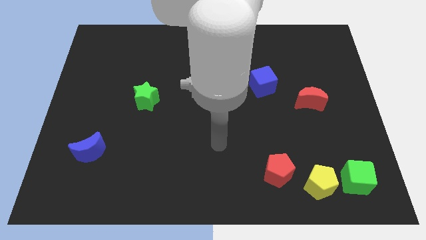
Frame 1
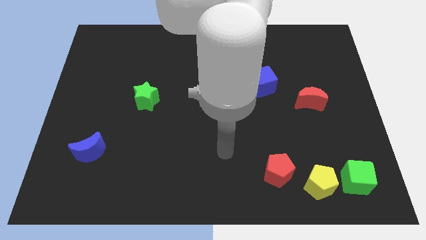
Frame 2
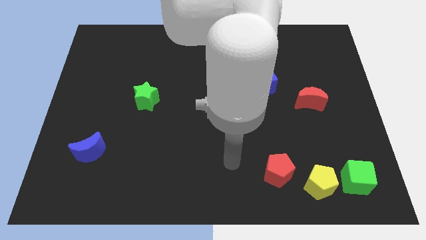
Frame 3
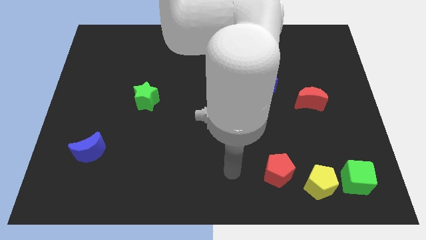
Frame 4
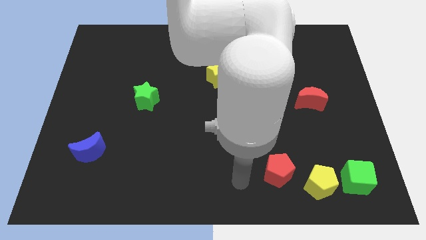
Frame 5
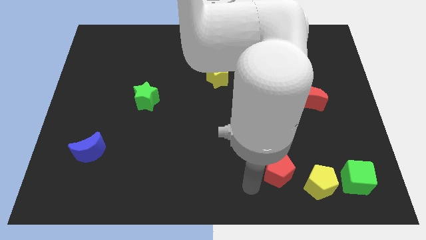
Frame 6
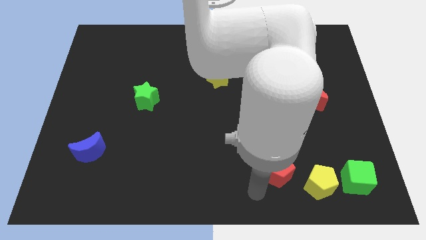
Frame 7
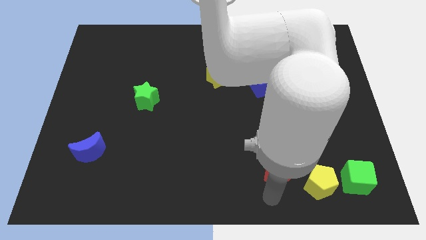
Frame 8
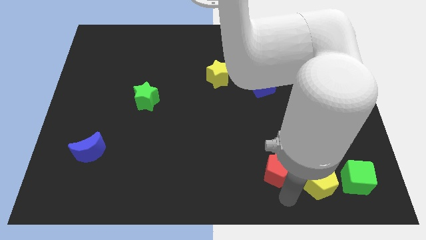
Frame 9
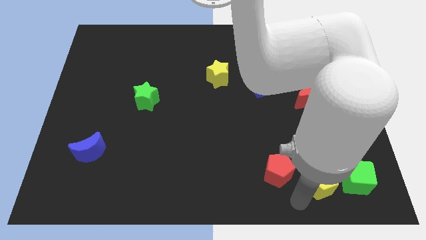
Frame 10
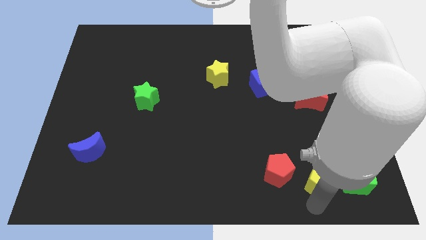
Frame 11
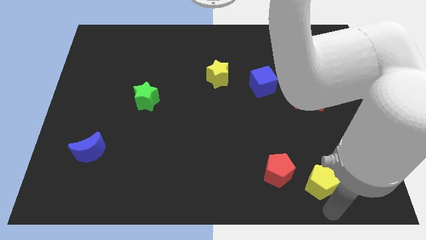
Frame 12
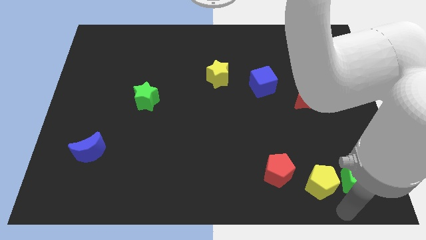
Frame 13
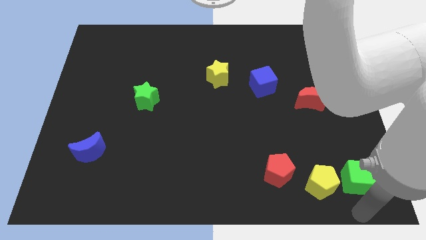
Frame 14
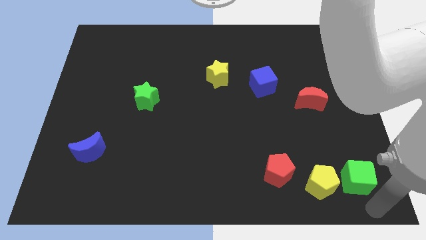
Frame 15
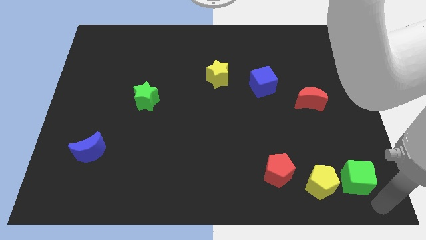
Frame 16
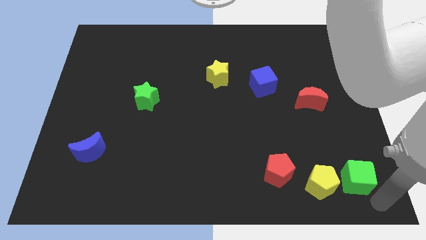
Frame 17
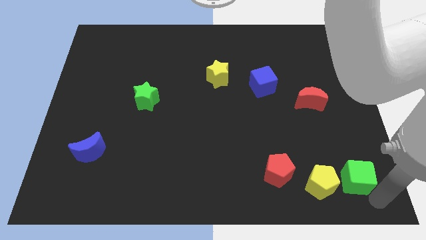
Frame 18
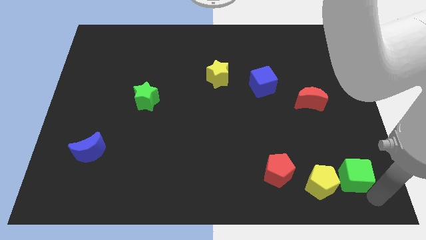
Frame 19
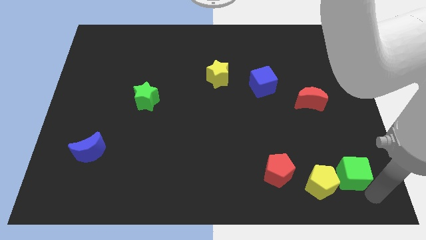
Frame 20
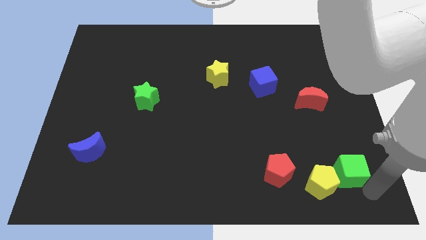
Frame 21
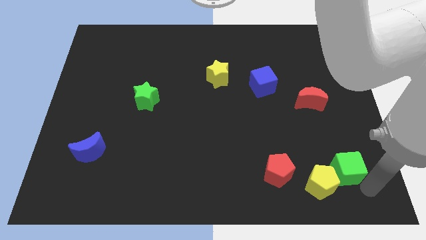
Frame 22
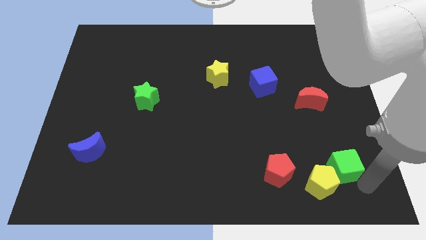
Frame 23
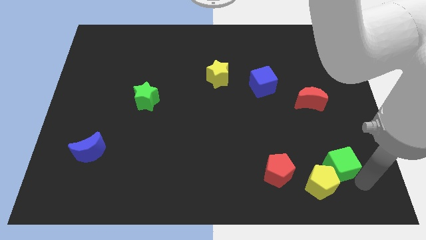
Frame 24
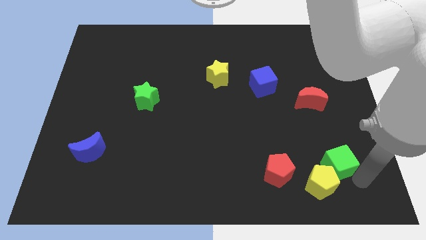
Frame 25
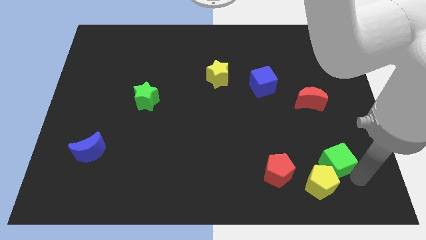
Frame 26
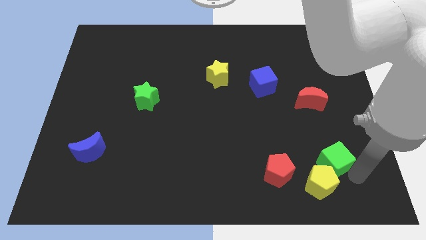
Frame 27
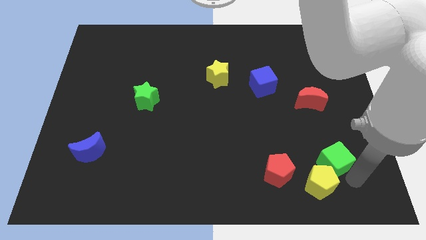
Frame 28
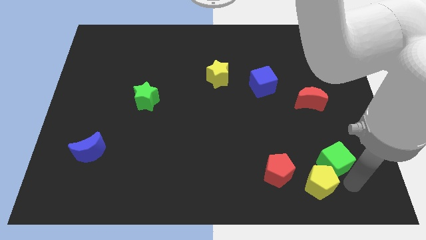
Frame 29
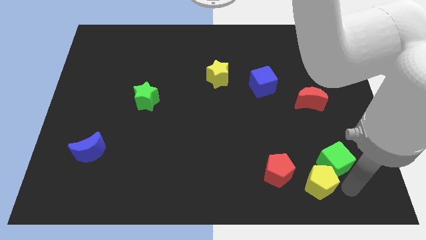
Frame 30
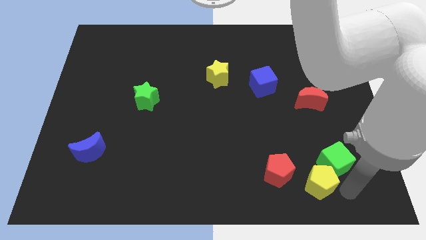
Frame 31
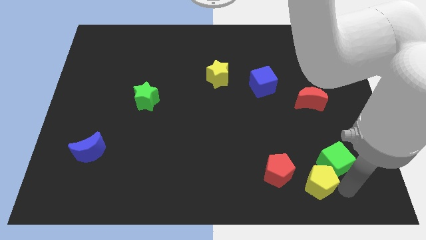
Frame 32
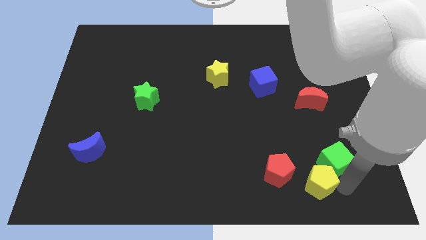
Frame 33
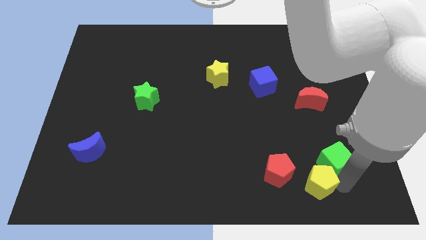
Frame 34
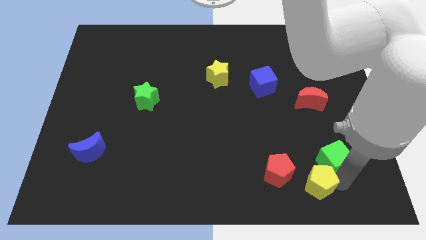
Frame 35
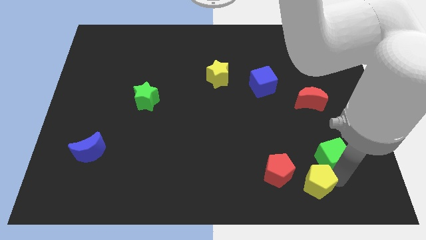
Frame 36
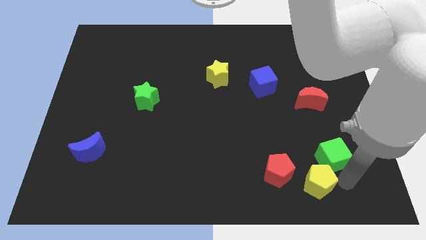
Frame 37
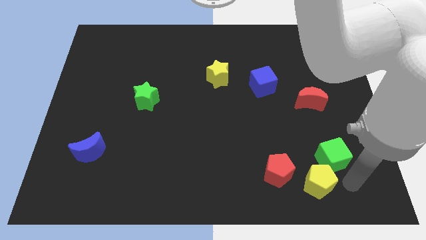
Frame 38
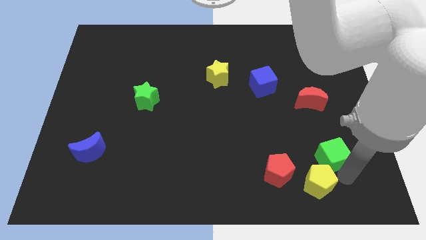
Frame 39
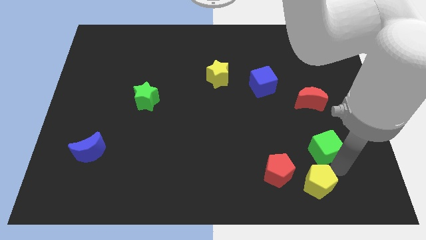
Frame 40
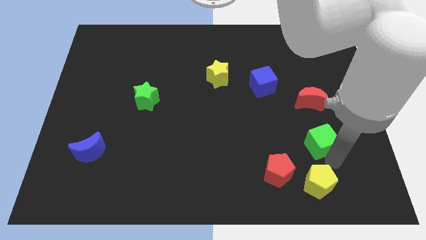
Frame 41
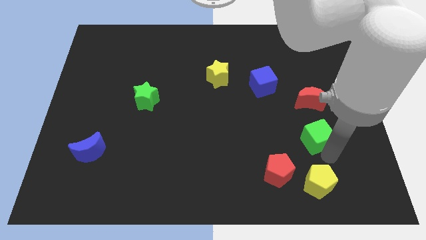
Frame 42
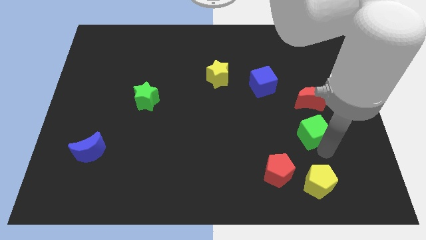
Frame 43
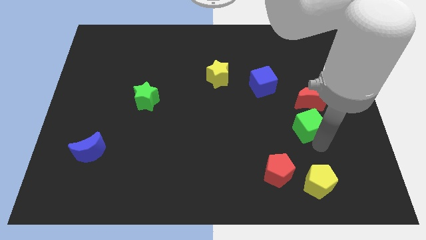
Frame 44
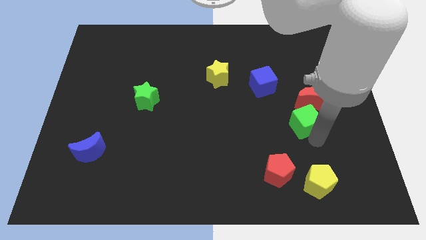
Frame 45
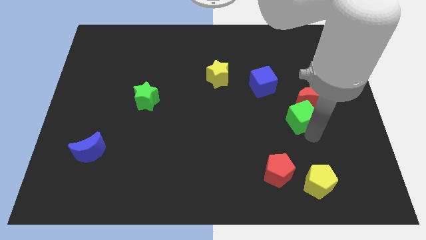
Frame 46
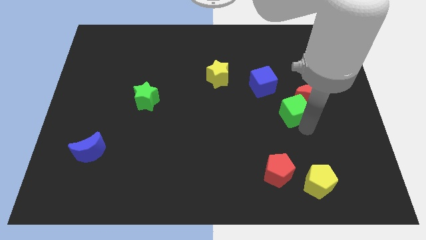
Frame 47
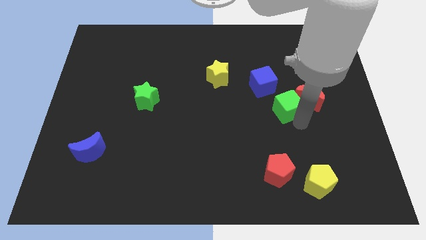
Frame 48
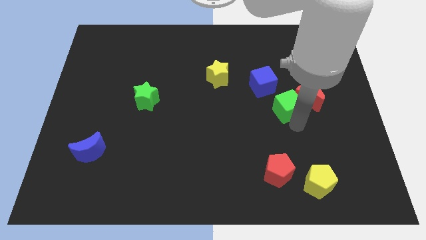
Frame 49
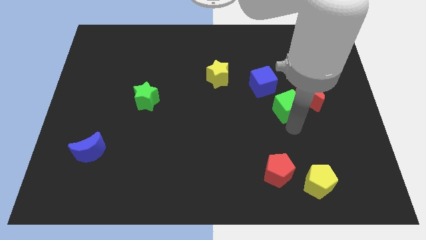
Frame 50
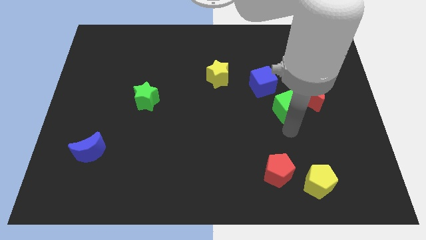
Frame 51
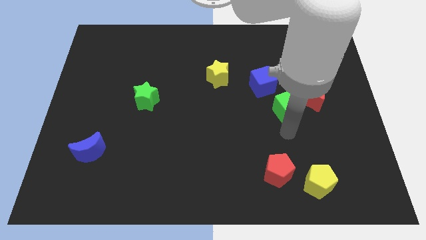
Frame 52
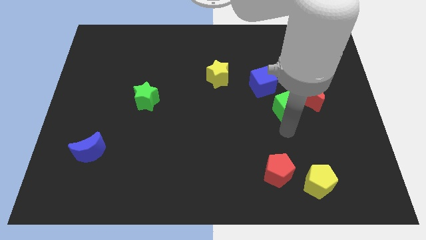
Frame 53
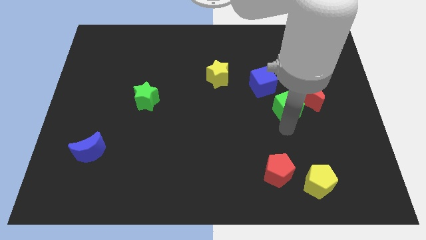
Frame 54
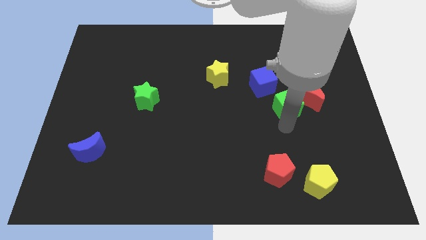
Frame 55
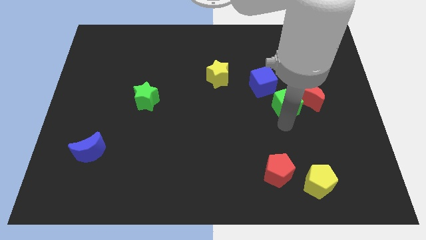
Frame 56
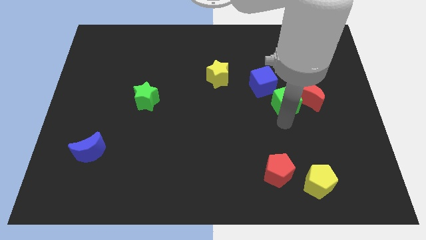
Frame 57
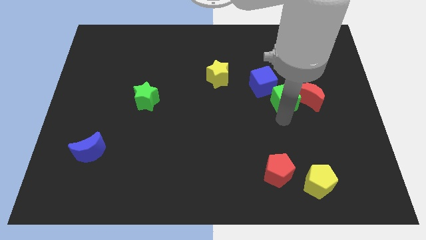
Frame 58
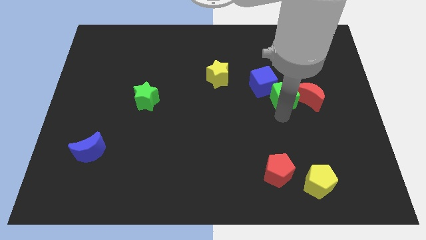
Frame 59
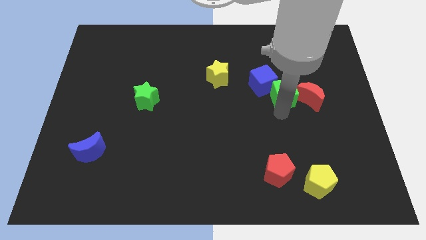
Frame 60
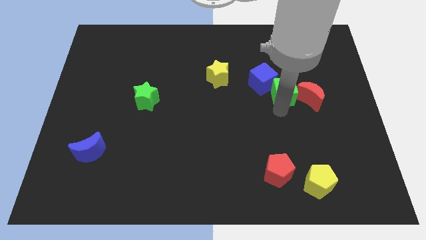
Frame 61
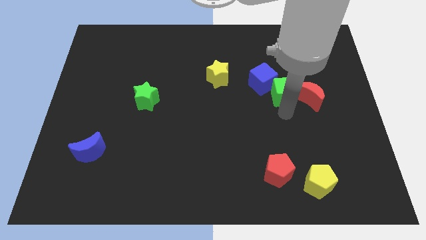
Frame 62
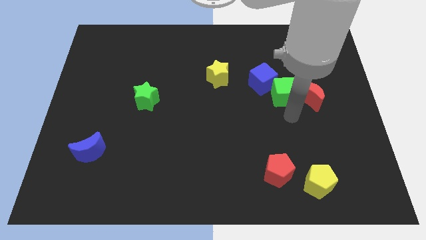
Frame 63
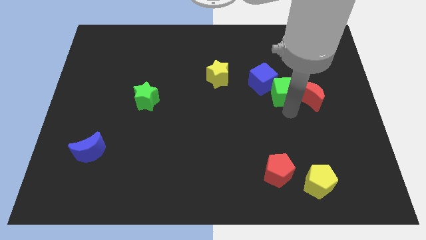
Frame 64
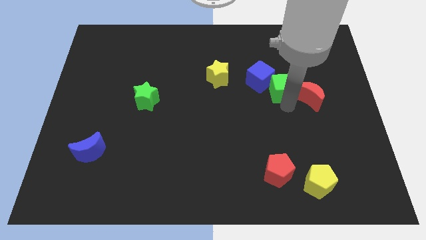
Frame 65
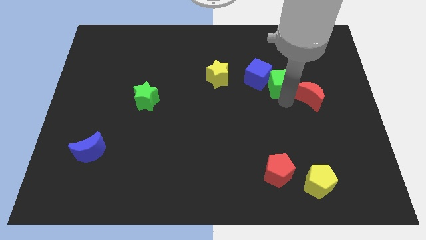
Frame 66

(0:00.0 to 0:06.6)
move the green cube just right of the yellow star
